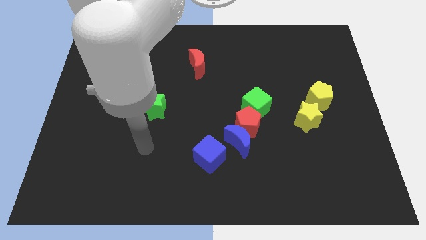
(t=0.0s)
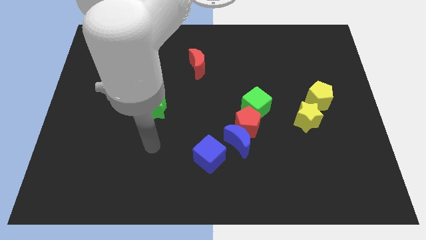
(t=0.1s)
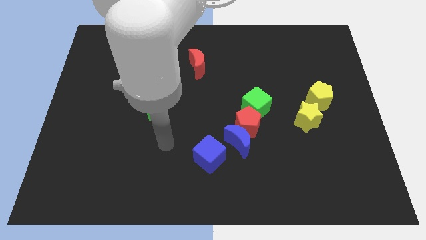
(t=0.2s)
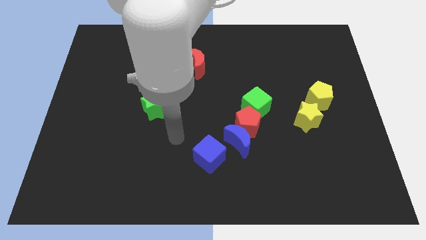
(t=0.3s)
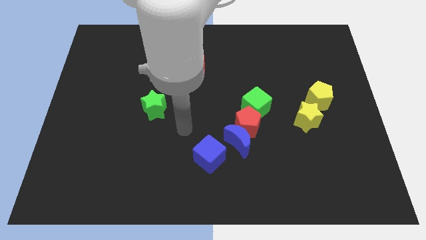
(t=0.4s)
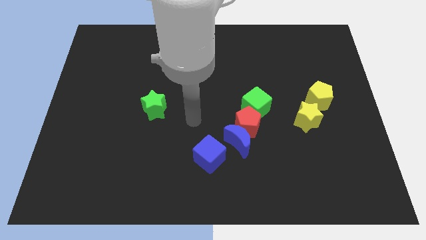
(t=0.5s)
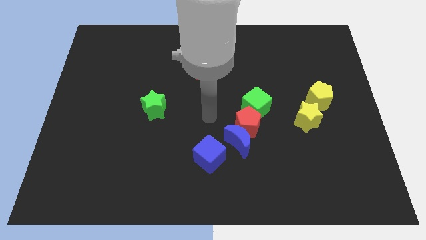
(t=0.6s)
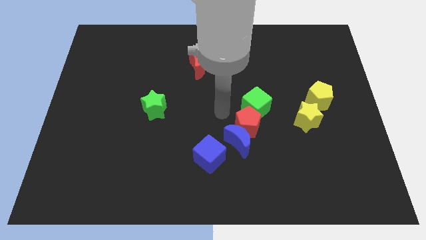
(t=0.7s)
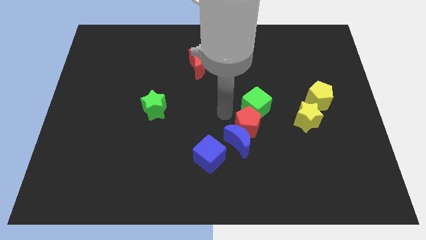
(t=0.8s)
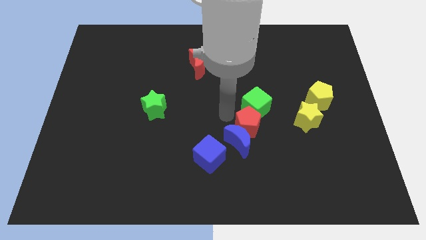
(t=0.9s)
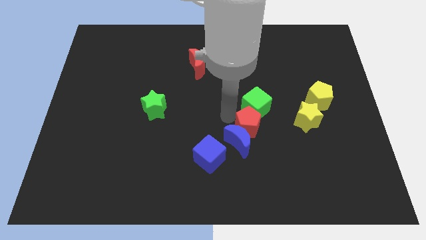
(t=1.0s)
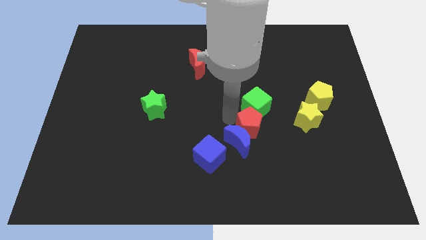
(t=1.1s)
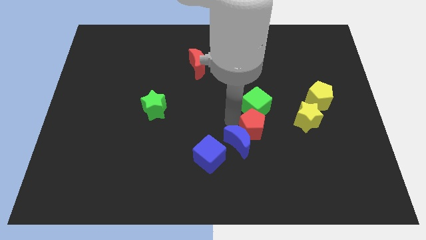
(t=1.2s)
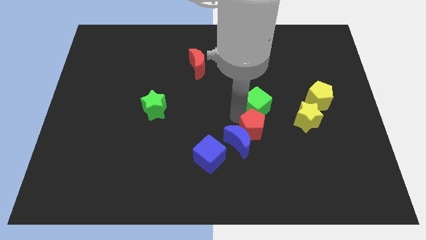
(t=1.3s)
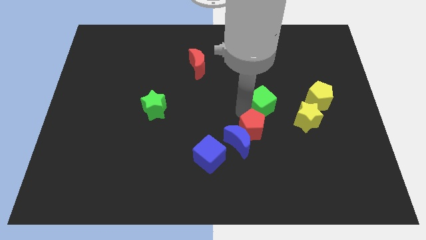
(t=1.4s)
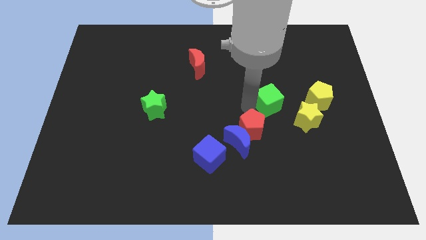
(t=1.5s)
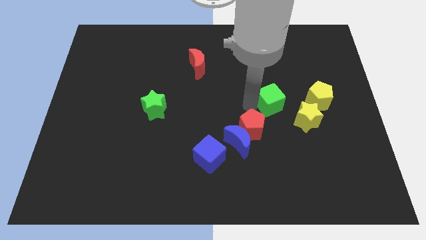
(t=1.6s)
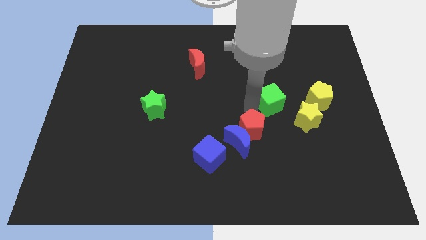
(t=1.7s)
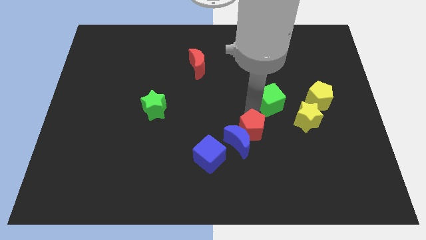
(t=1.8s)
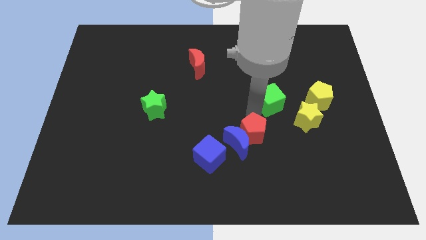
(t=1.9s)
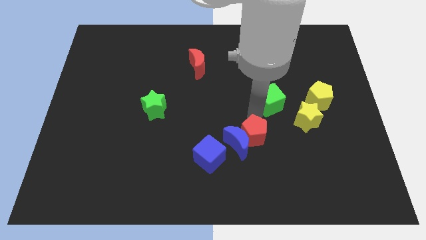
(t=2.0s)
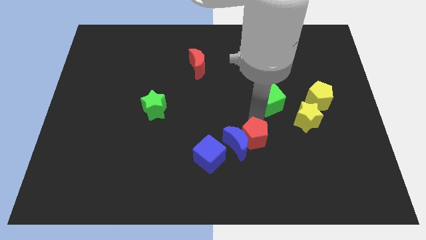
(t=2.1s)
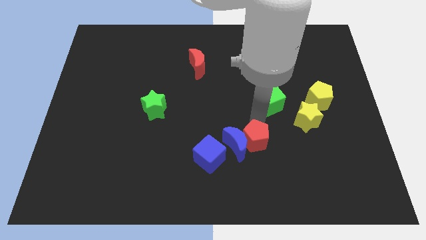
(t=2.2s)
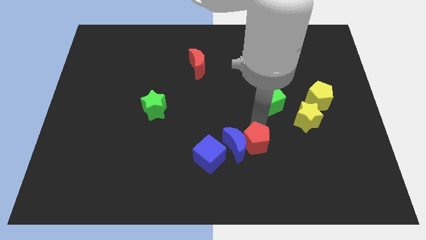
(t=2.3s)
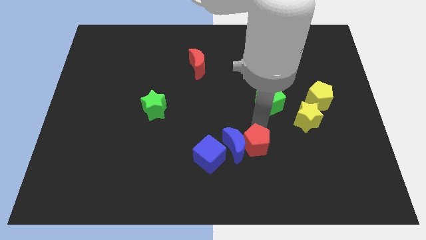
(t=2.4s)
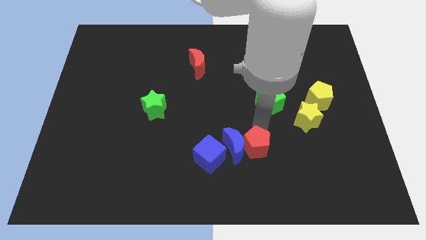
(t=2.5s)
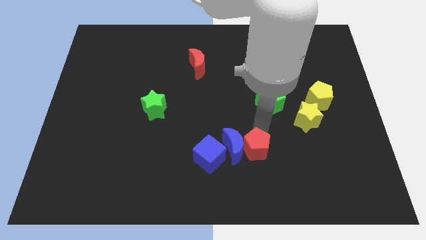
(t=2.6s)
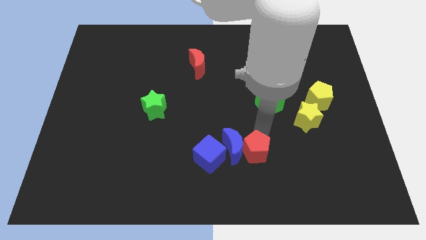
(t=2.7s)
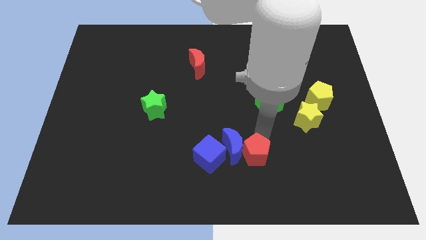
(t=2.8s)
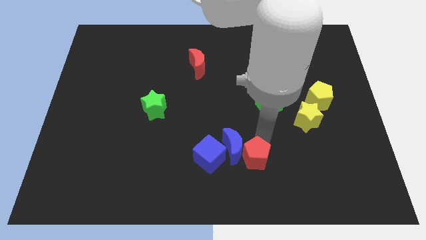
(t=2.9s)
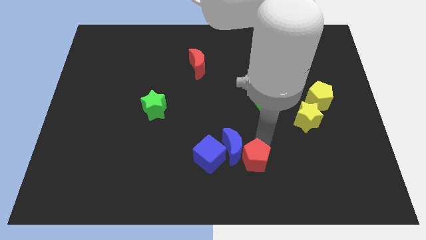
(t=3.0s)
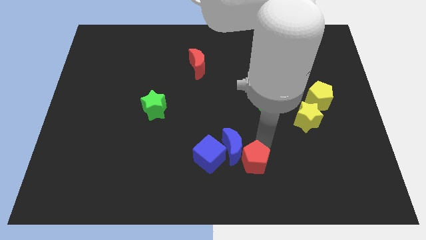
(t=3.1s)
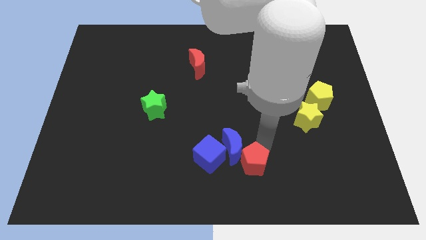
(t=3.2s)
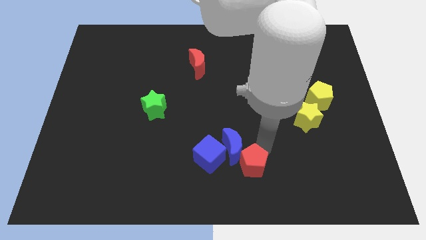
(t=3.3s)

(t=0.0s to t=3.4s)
separate the red pentagon from the blue moon and green cube

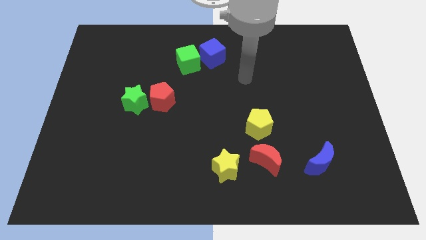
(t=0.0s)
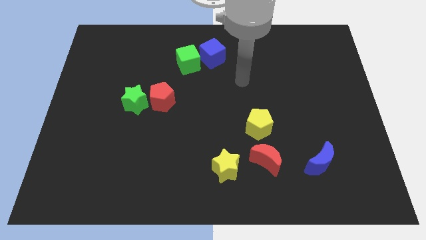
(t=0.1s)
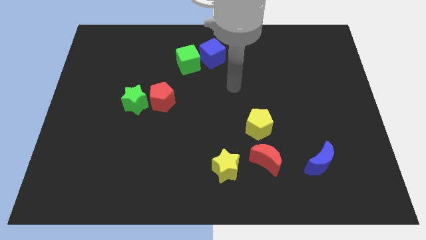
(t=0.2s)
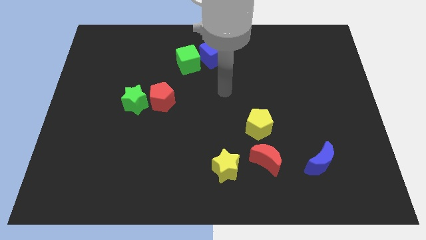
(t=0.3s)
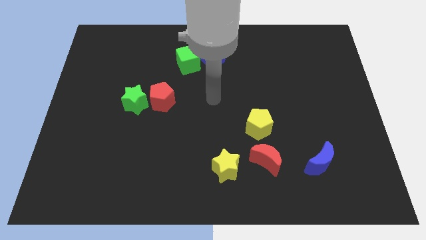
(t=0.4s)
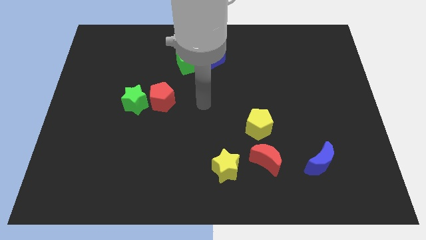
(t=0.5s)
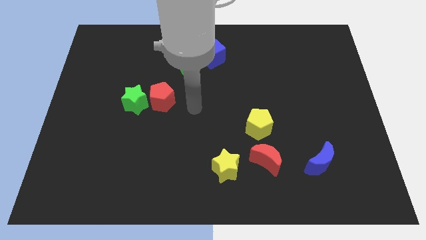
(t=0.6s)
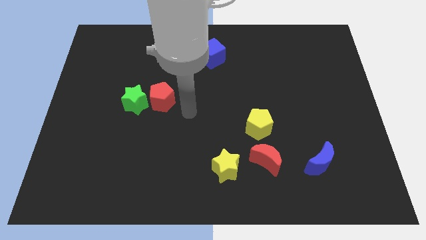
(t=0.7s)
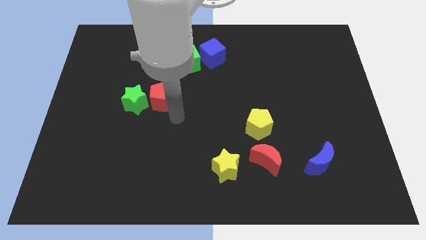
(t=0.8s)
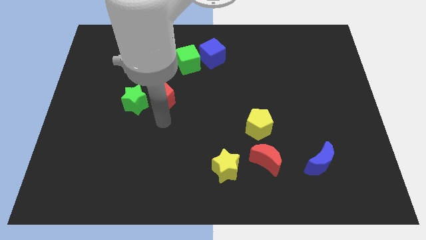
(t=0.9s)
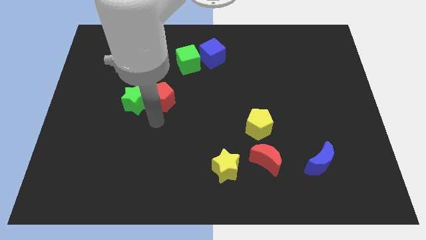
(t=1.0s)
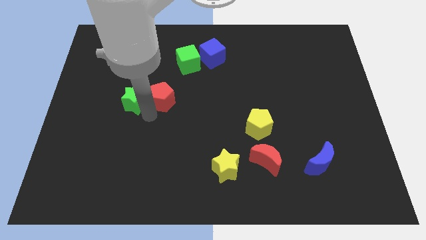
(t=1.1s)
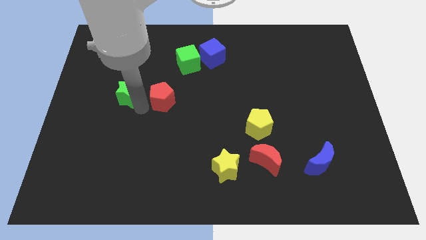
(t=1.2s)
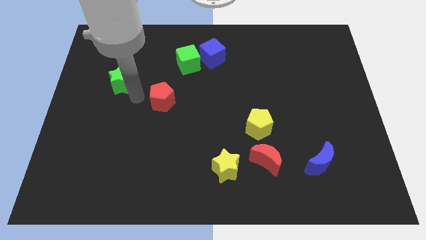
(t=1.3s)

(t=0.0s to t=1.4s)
separate the red pentagon from the green star

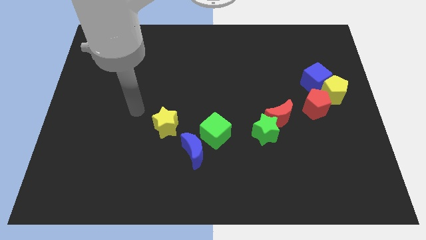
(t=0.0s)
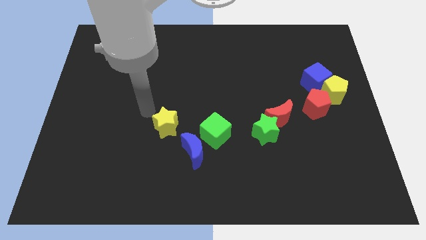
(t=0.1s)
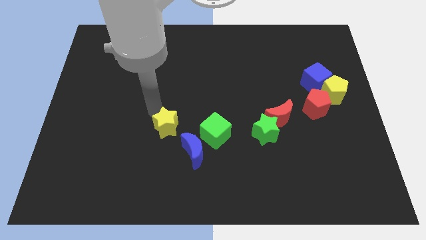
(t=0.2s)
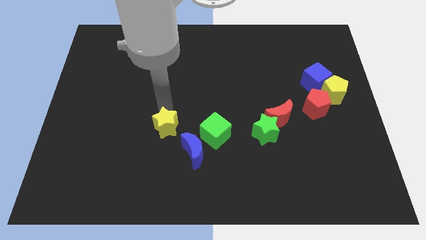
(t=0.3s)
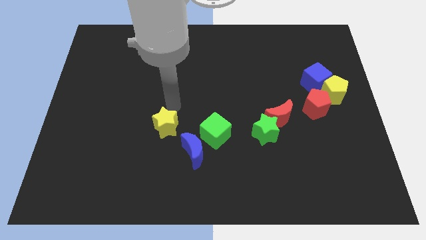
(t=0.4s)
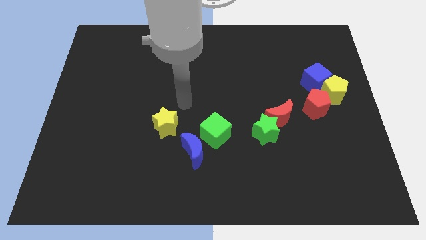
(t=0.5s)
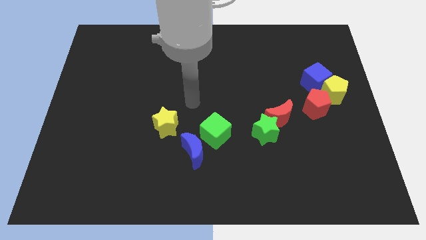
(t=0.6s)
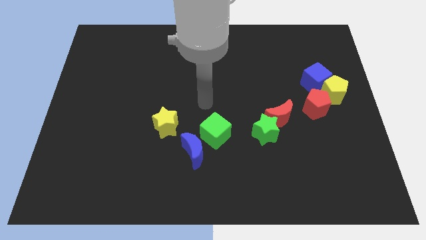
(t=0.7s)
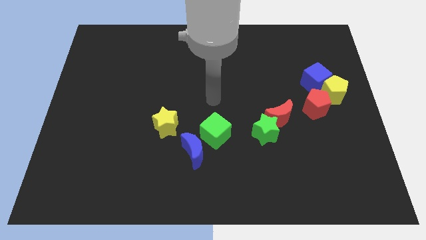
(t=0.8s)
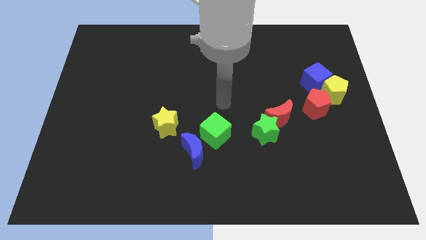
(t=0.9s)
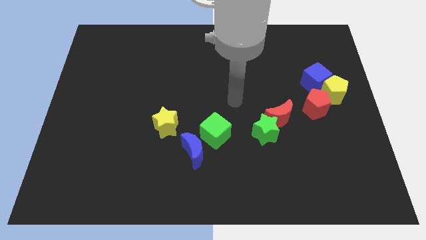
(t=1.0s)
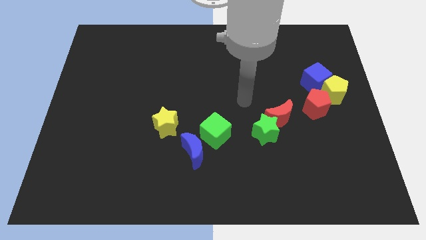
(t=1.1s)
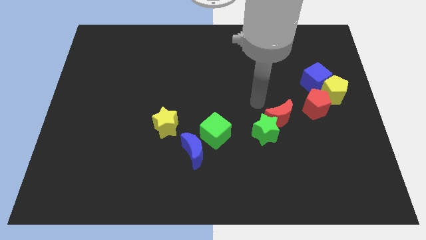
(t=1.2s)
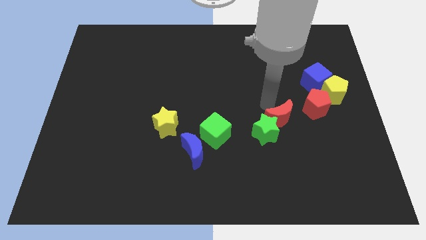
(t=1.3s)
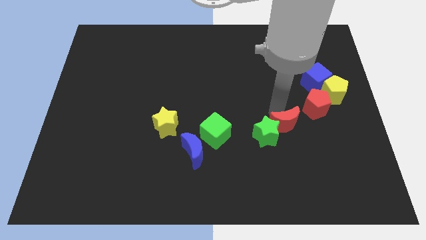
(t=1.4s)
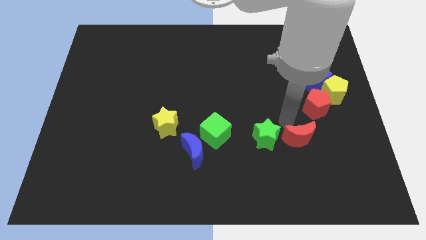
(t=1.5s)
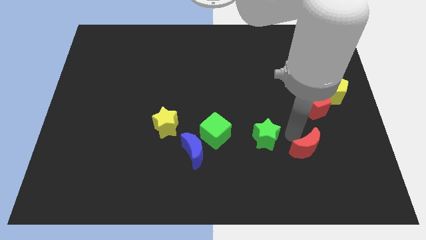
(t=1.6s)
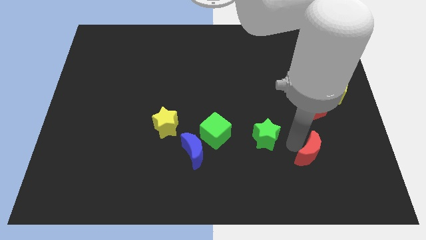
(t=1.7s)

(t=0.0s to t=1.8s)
pull the green star apart from the red moon

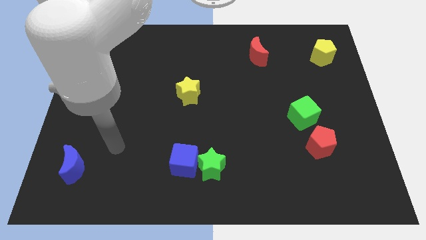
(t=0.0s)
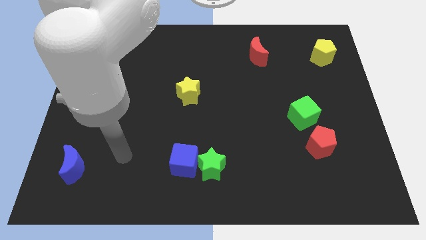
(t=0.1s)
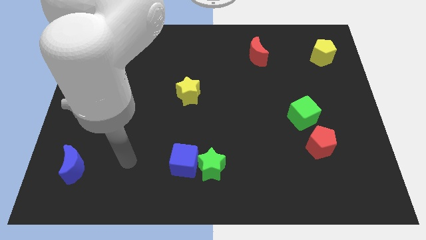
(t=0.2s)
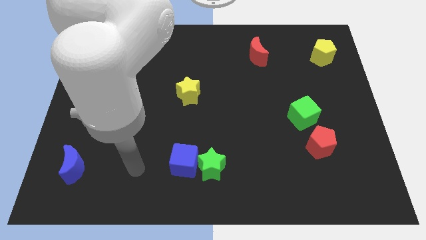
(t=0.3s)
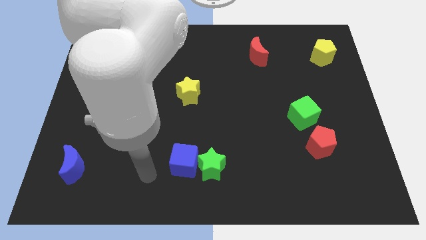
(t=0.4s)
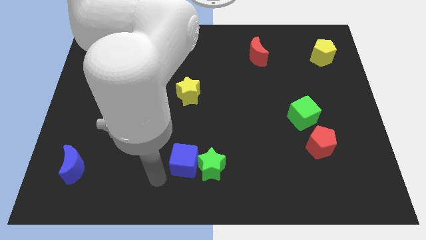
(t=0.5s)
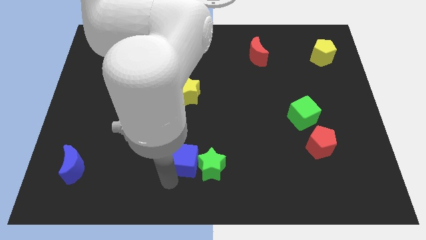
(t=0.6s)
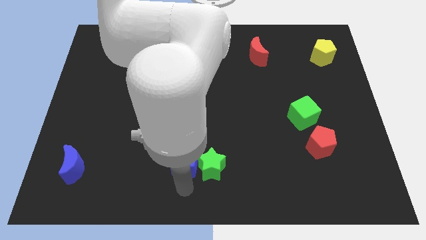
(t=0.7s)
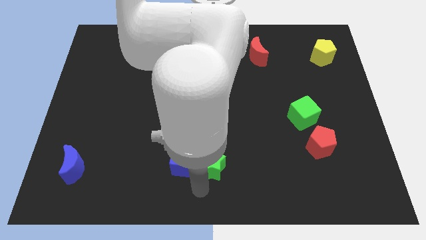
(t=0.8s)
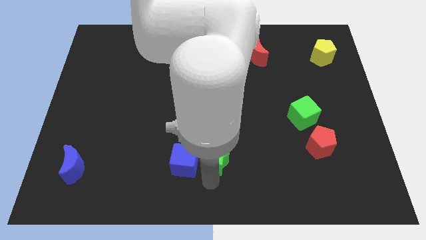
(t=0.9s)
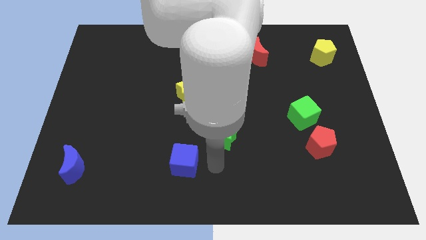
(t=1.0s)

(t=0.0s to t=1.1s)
pull the blue cube apart from the green star

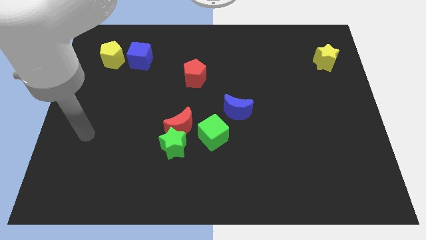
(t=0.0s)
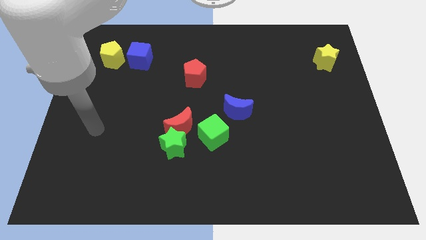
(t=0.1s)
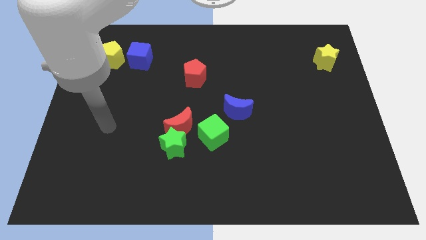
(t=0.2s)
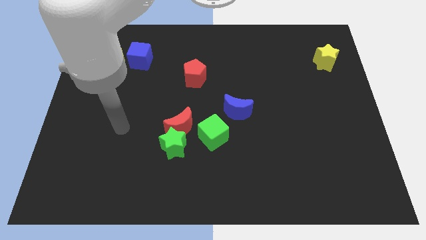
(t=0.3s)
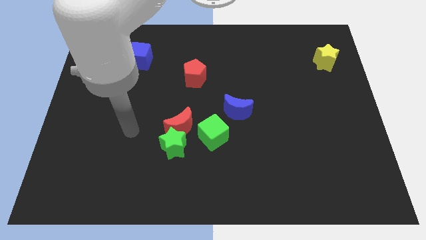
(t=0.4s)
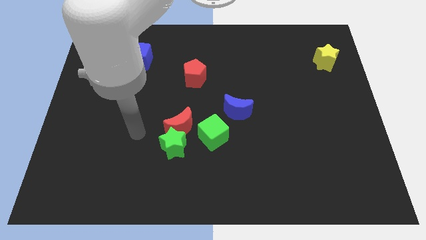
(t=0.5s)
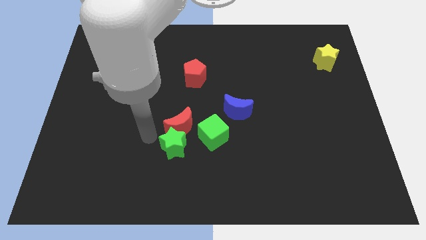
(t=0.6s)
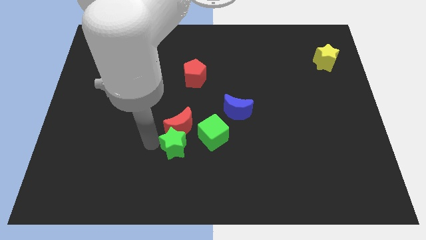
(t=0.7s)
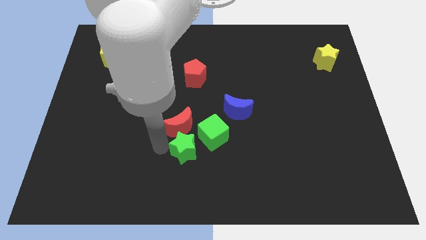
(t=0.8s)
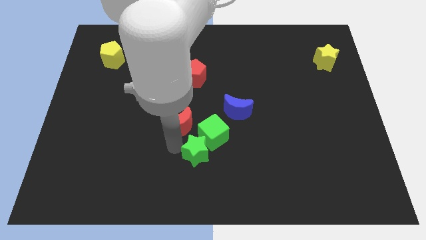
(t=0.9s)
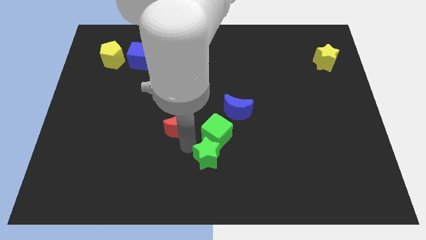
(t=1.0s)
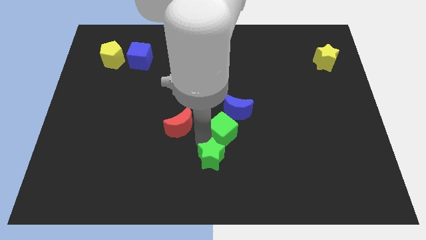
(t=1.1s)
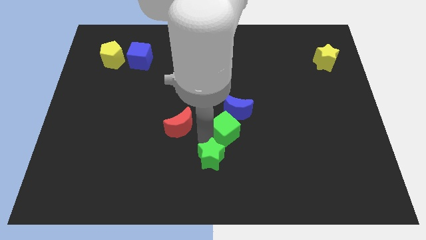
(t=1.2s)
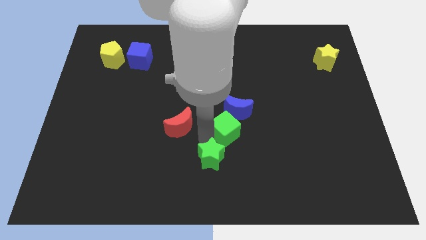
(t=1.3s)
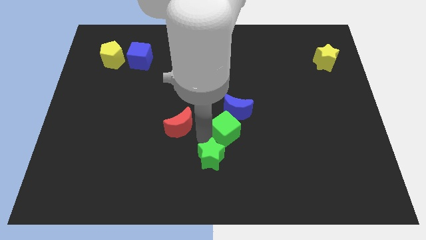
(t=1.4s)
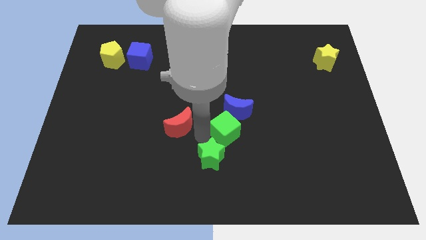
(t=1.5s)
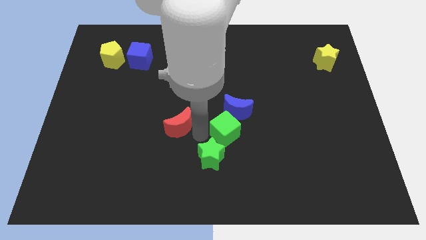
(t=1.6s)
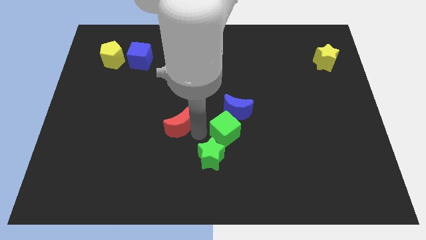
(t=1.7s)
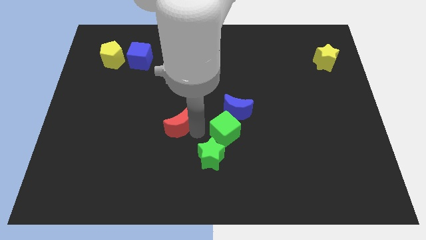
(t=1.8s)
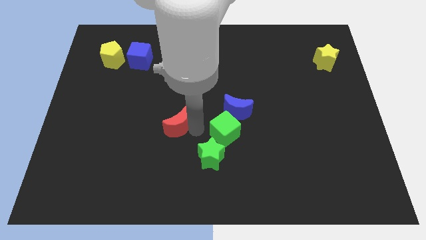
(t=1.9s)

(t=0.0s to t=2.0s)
pull the red moon apart from the green star and green cube
